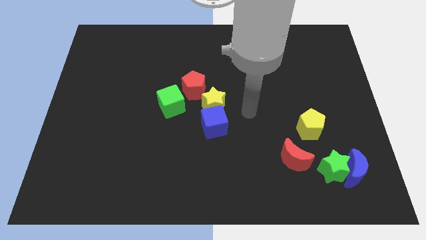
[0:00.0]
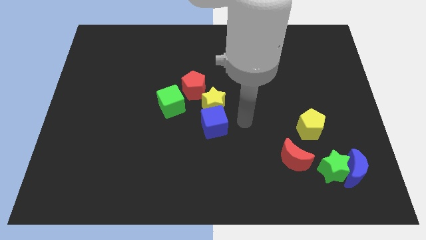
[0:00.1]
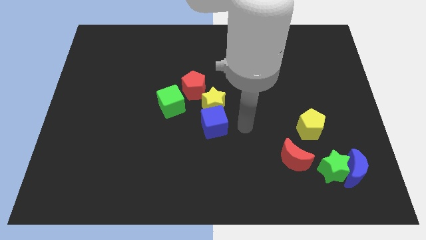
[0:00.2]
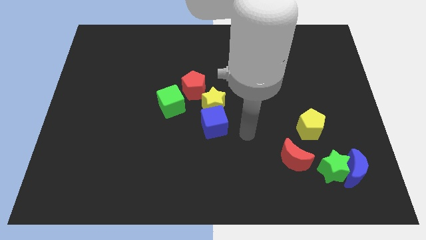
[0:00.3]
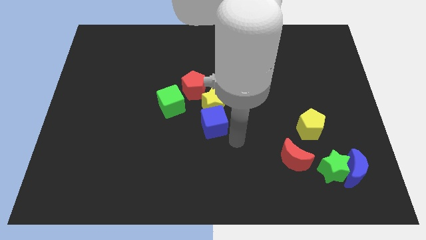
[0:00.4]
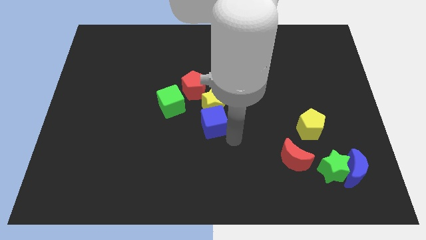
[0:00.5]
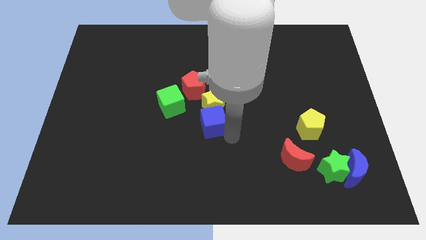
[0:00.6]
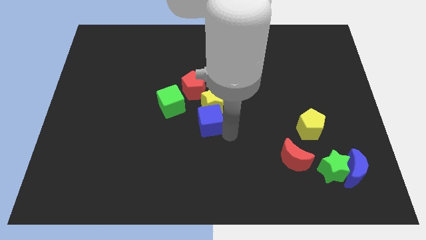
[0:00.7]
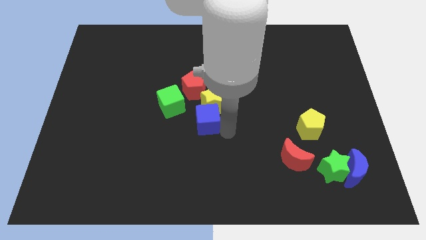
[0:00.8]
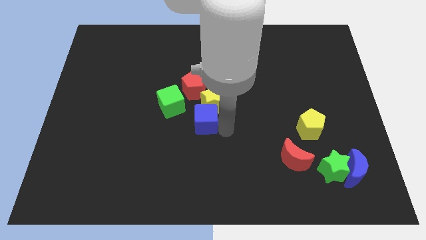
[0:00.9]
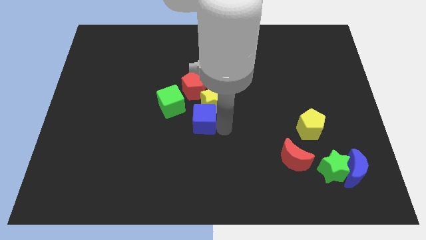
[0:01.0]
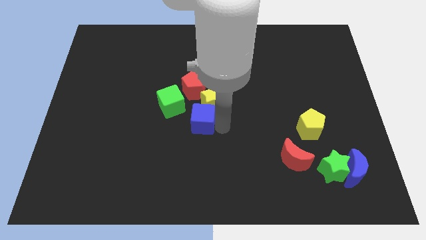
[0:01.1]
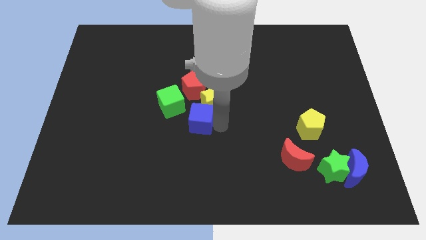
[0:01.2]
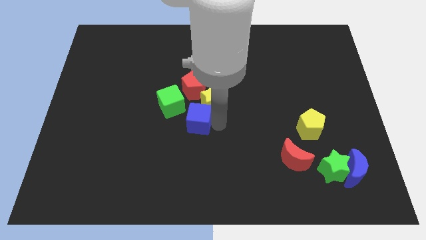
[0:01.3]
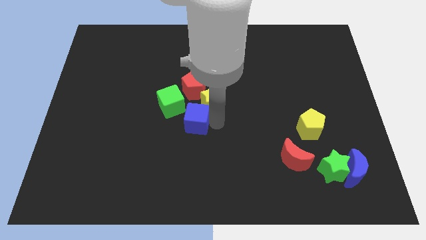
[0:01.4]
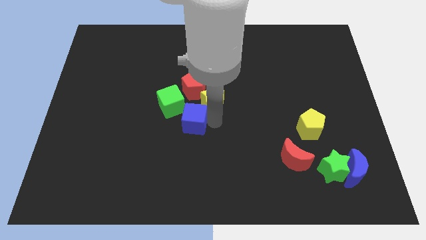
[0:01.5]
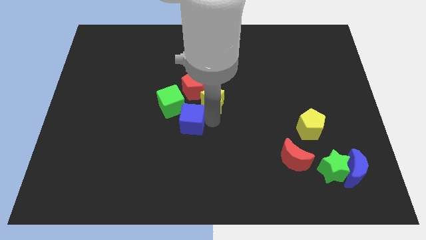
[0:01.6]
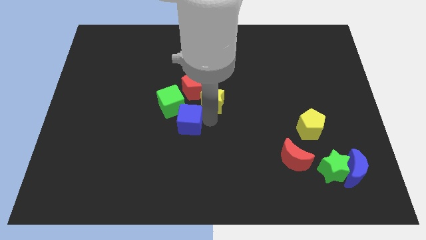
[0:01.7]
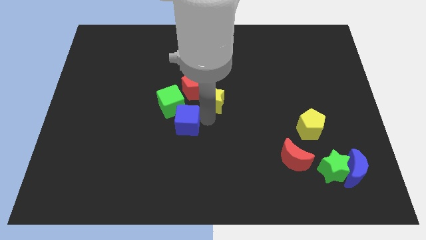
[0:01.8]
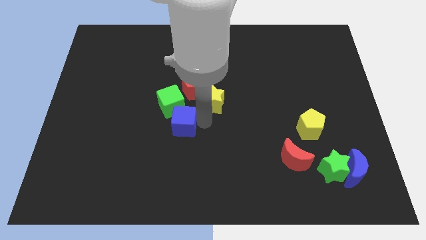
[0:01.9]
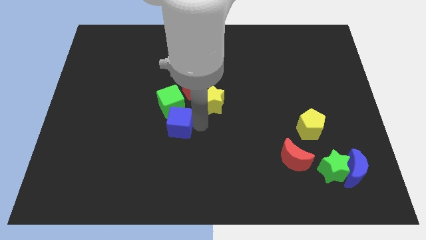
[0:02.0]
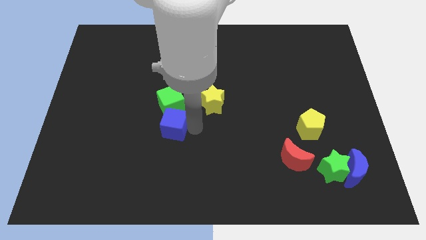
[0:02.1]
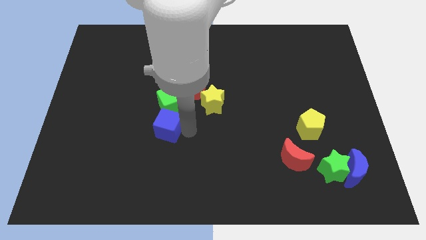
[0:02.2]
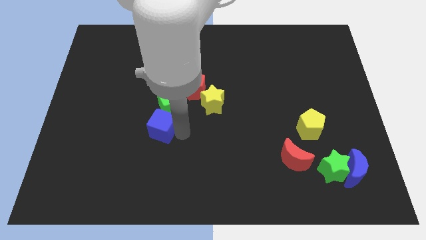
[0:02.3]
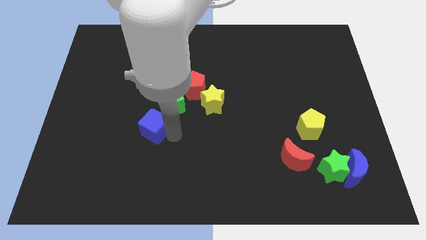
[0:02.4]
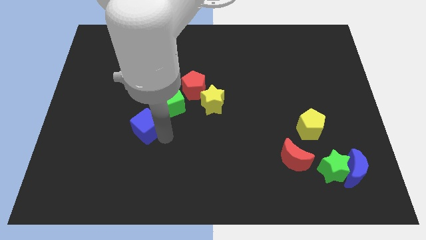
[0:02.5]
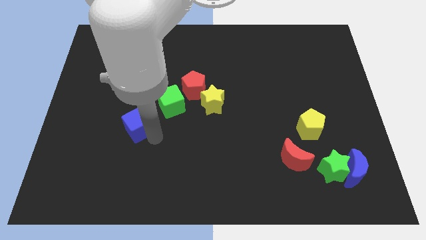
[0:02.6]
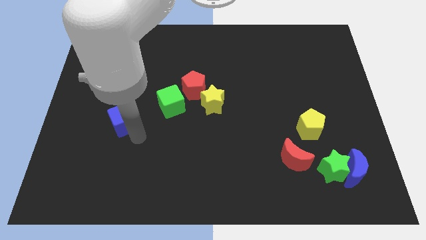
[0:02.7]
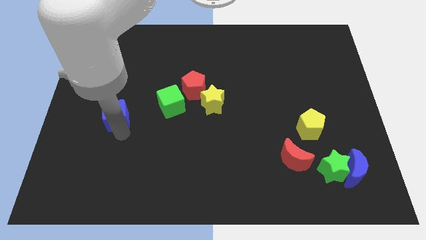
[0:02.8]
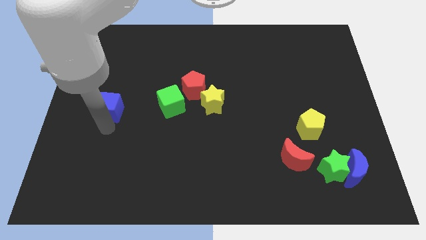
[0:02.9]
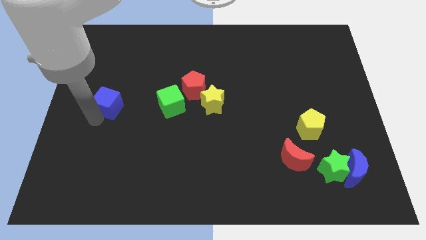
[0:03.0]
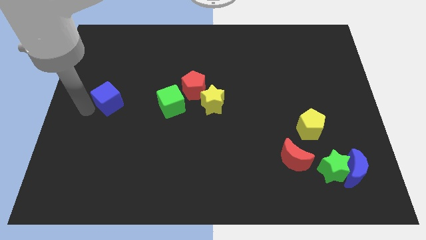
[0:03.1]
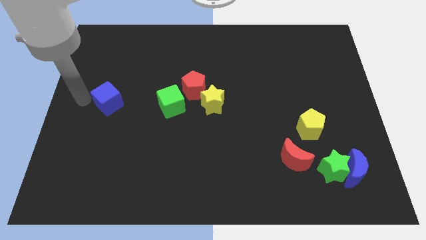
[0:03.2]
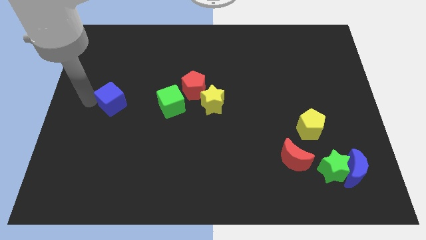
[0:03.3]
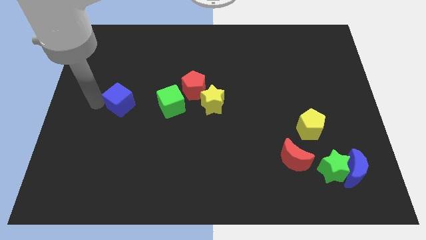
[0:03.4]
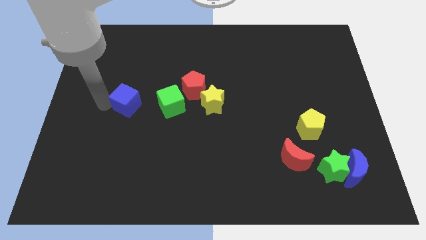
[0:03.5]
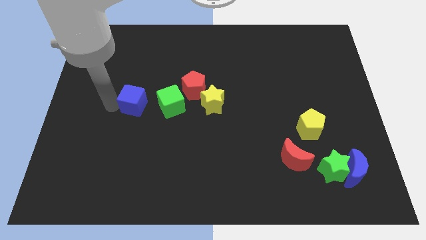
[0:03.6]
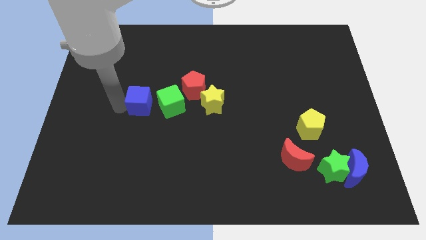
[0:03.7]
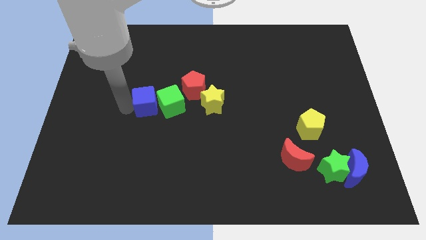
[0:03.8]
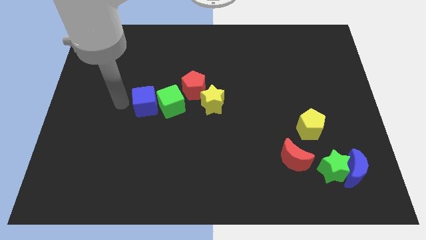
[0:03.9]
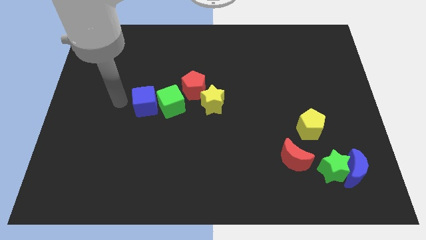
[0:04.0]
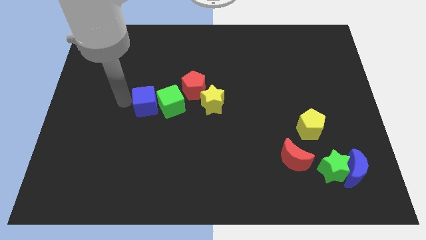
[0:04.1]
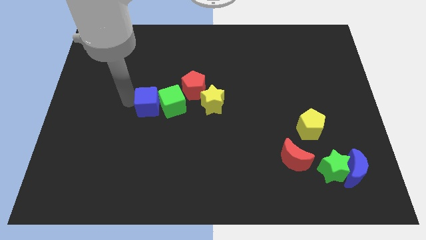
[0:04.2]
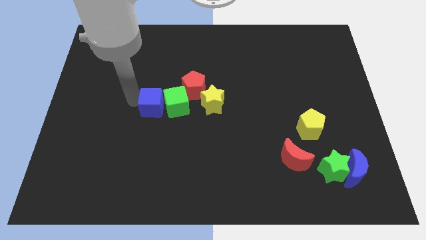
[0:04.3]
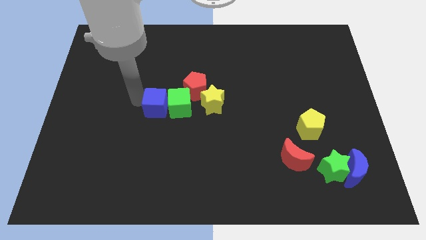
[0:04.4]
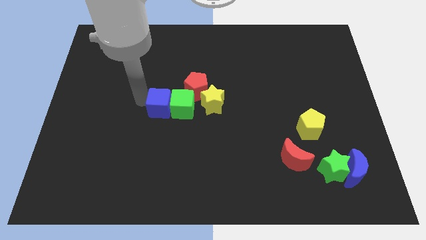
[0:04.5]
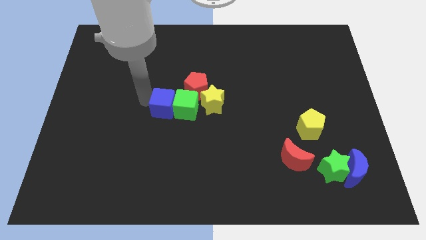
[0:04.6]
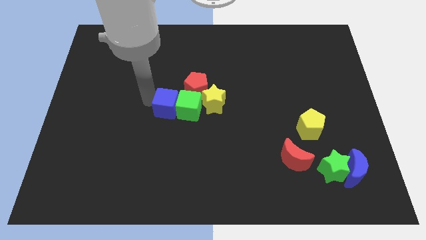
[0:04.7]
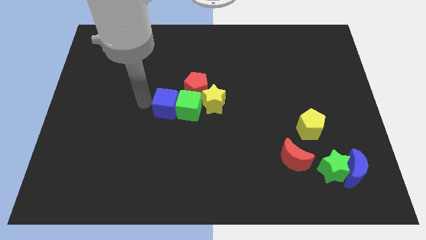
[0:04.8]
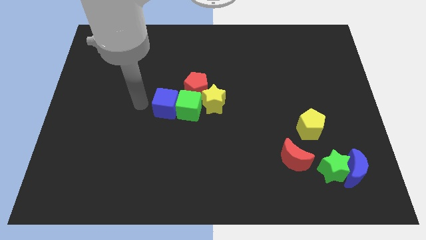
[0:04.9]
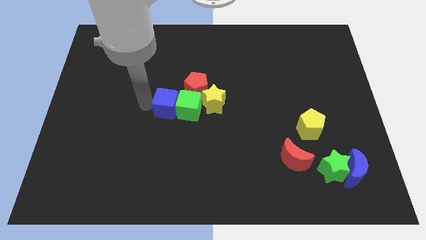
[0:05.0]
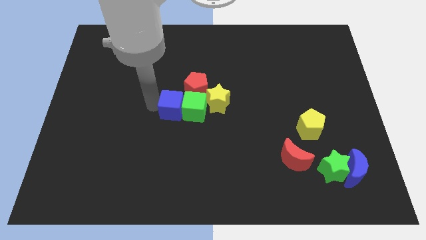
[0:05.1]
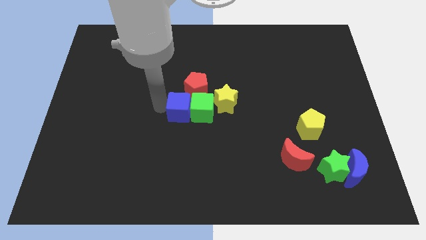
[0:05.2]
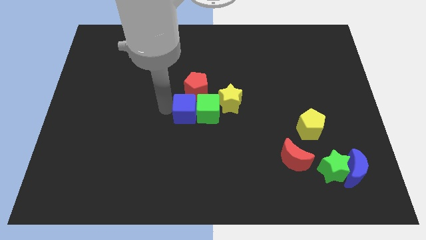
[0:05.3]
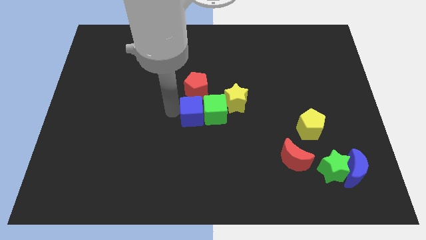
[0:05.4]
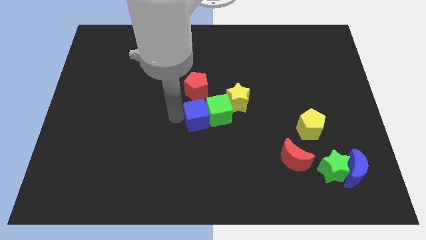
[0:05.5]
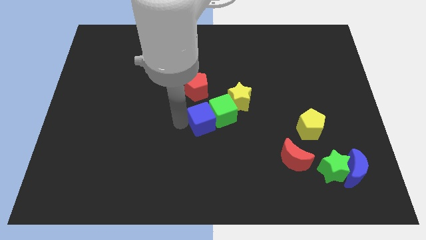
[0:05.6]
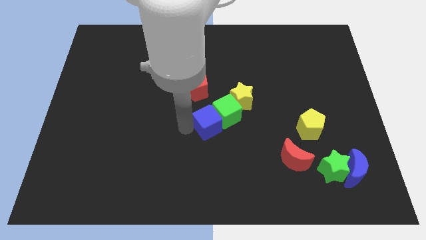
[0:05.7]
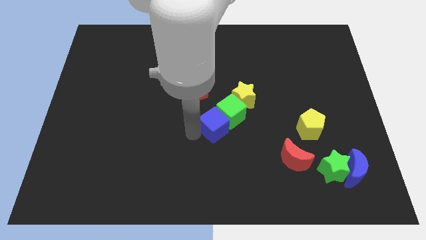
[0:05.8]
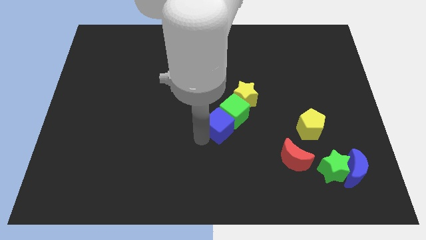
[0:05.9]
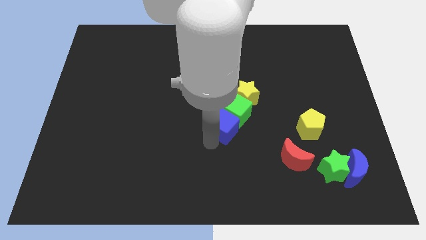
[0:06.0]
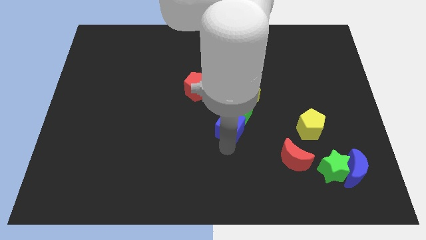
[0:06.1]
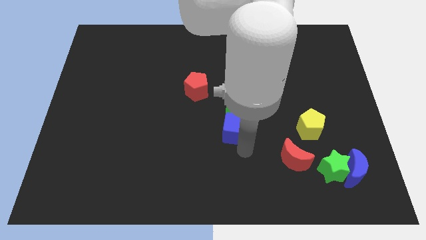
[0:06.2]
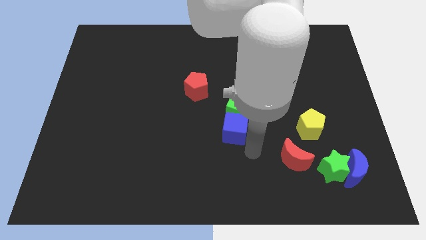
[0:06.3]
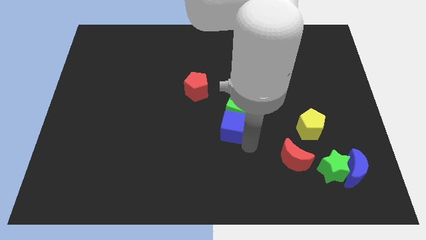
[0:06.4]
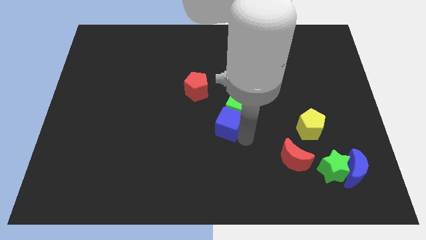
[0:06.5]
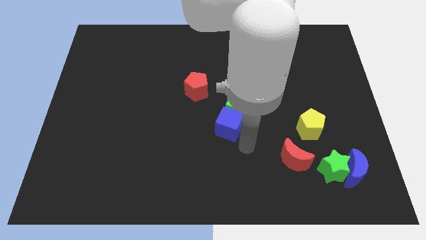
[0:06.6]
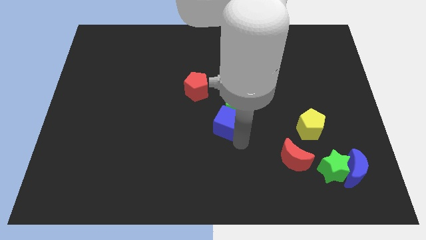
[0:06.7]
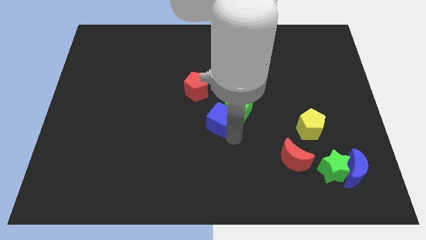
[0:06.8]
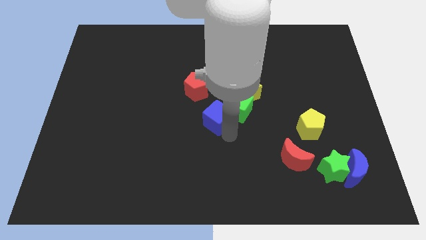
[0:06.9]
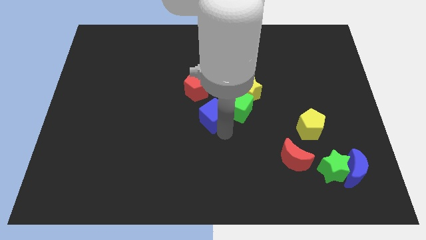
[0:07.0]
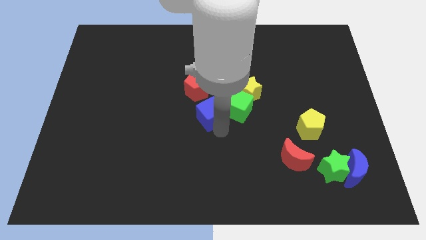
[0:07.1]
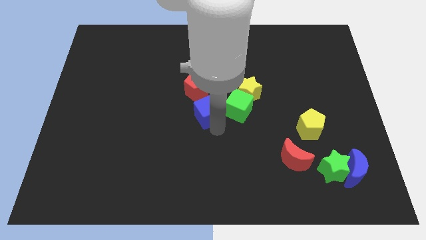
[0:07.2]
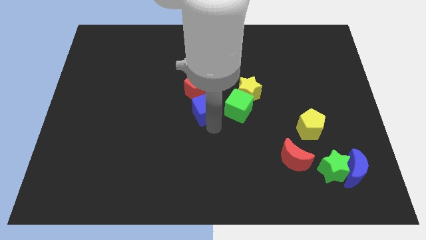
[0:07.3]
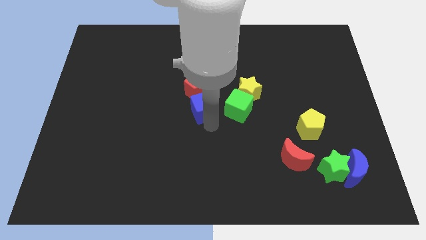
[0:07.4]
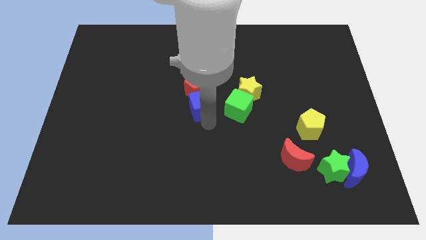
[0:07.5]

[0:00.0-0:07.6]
put the blue cube close to the red pentagon

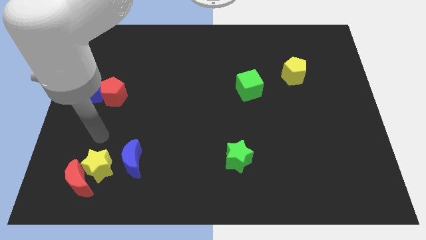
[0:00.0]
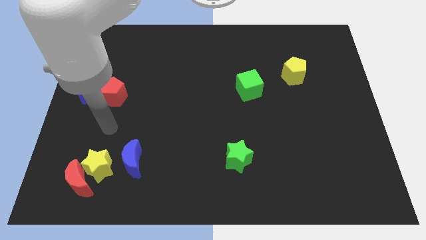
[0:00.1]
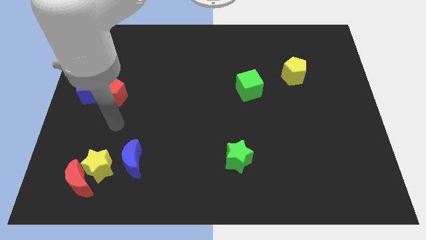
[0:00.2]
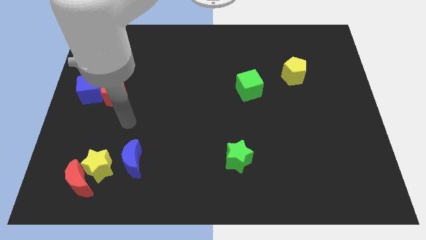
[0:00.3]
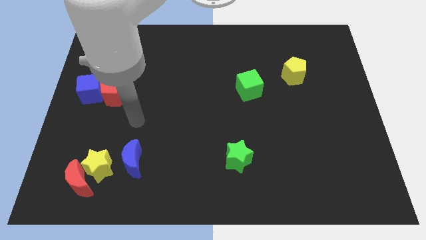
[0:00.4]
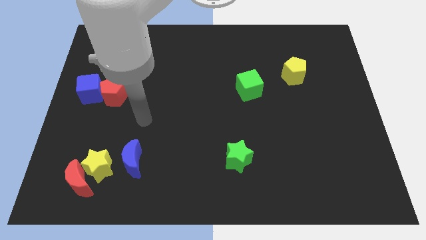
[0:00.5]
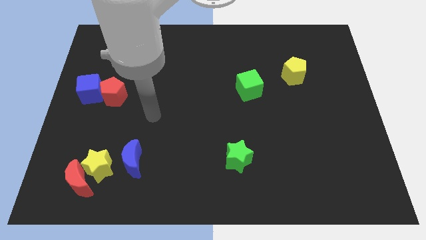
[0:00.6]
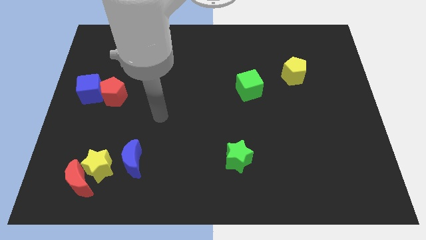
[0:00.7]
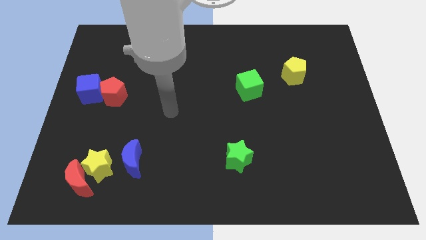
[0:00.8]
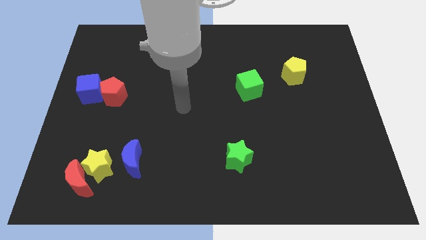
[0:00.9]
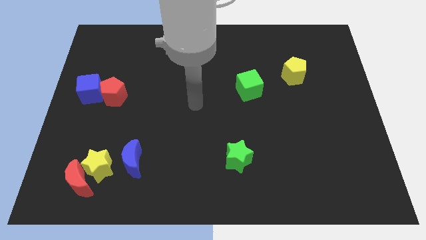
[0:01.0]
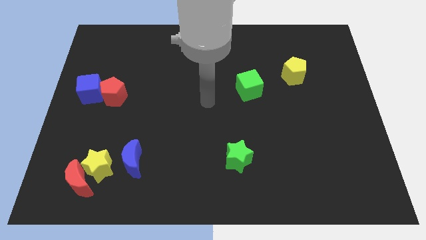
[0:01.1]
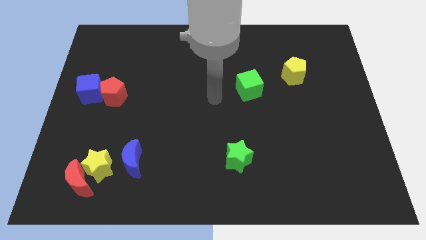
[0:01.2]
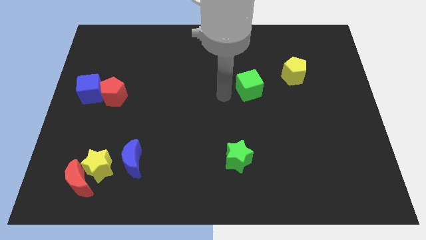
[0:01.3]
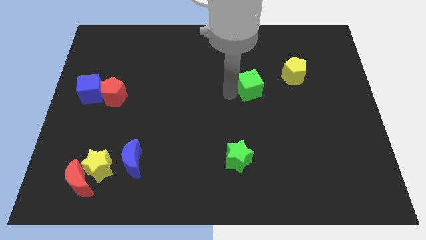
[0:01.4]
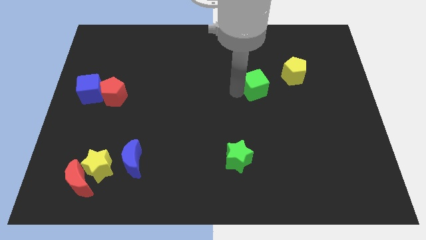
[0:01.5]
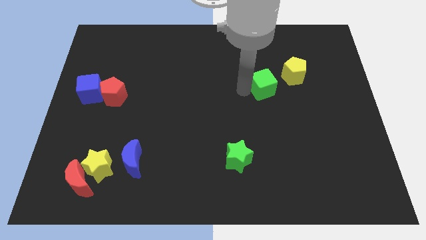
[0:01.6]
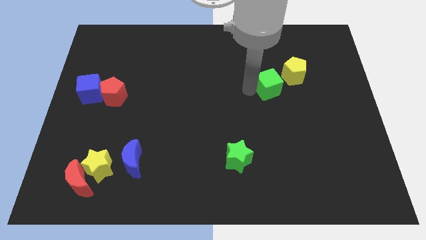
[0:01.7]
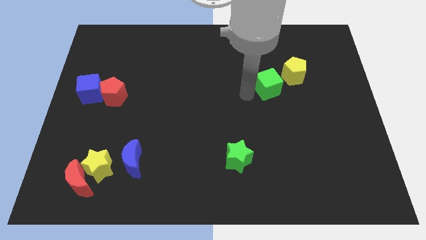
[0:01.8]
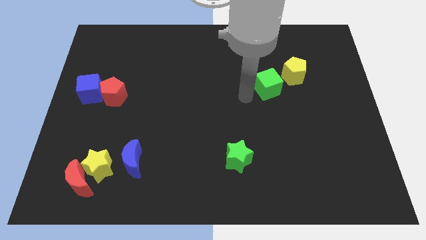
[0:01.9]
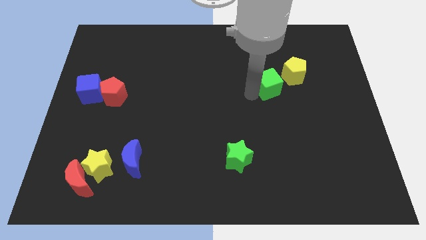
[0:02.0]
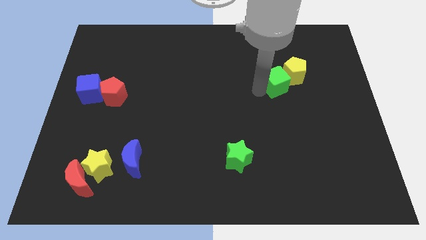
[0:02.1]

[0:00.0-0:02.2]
move the green cube towards the yellow pentagon
